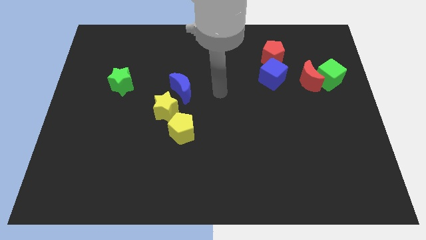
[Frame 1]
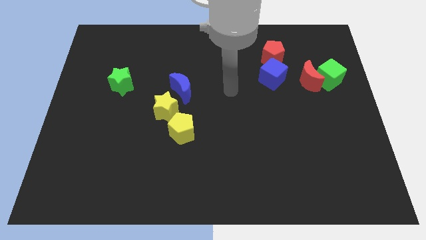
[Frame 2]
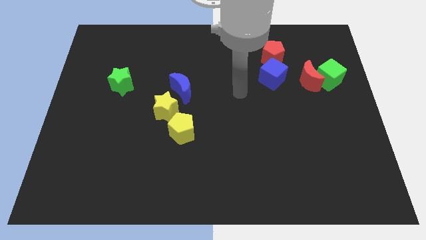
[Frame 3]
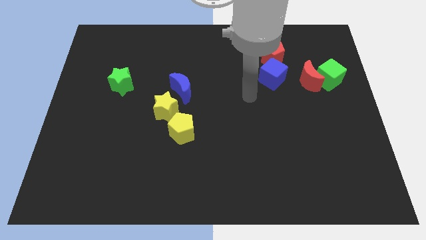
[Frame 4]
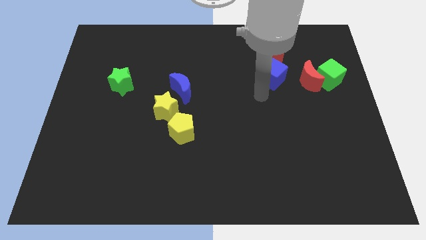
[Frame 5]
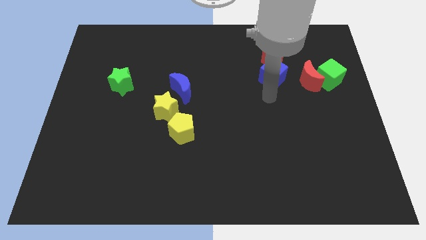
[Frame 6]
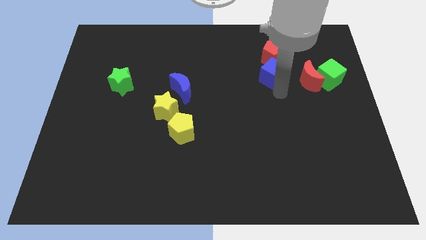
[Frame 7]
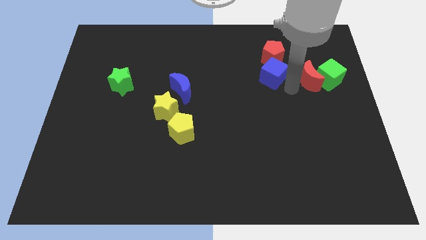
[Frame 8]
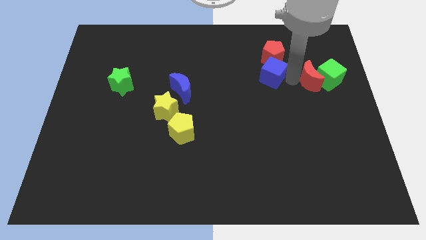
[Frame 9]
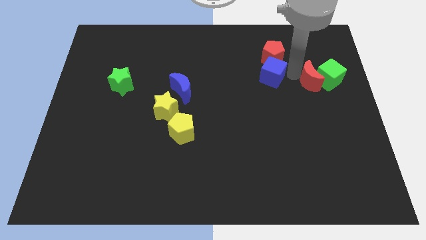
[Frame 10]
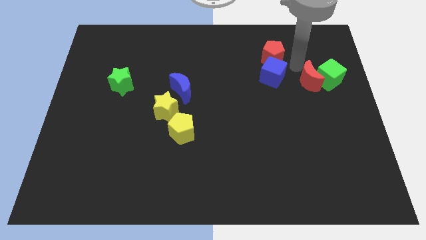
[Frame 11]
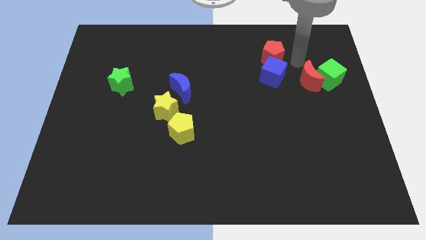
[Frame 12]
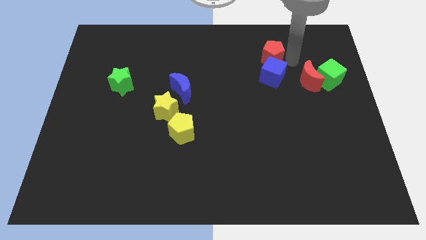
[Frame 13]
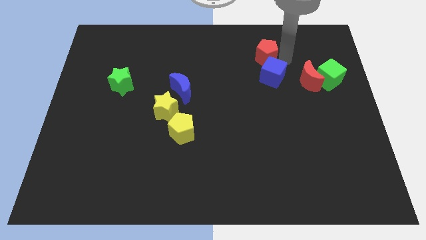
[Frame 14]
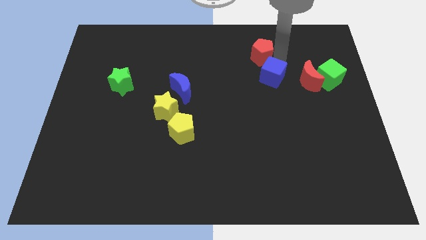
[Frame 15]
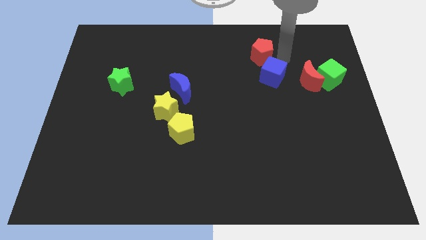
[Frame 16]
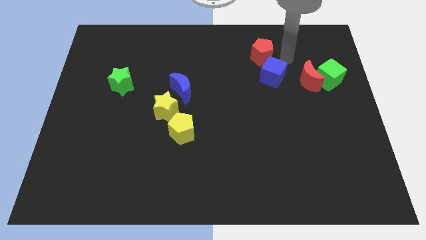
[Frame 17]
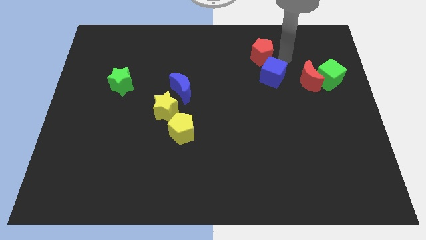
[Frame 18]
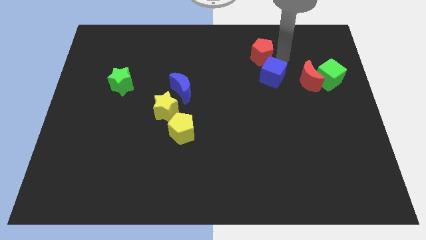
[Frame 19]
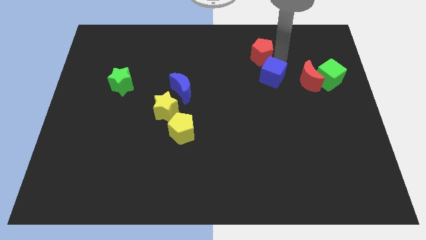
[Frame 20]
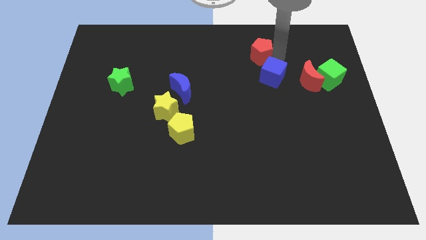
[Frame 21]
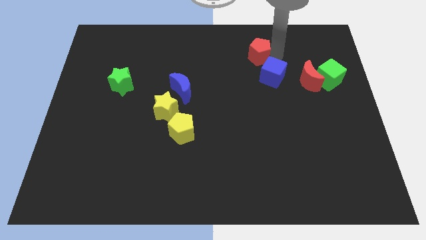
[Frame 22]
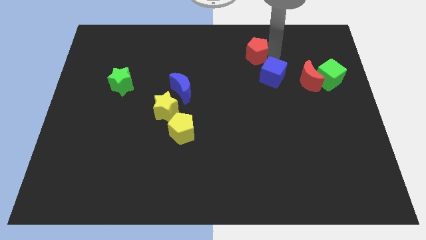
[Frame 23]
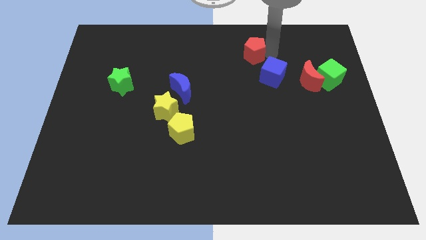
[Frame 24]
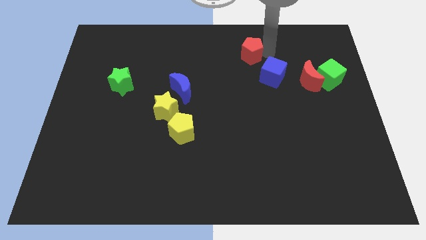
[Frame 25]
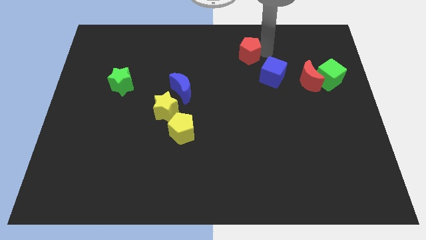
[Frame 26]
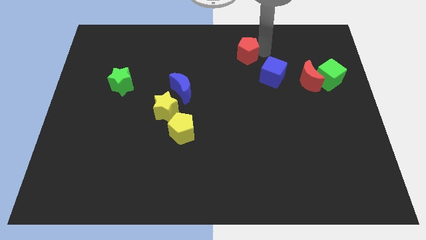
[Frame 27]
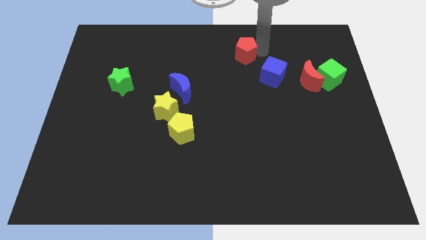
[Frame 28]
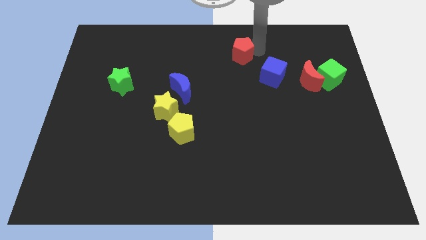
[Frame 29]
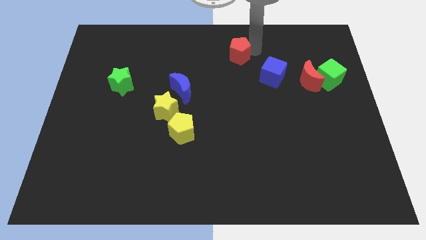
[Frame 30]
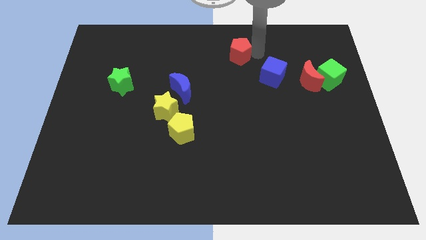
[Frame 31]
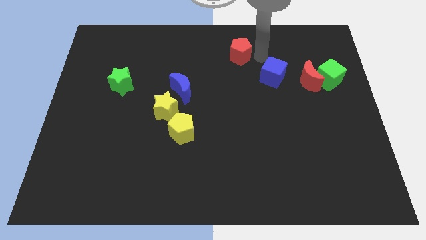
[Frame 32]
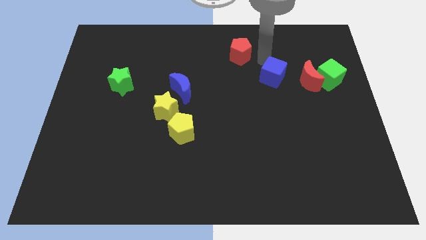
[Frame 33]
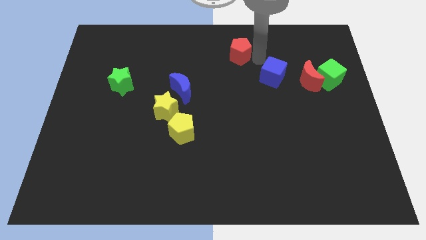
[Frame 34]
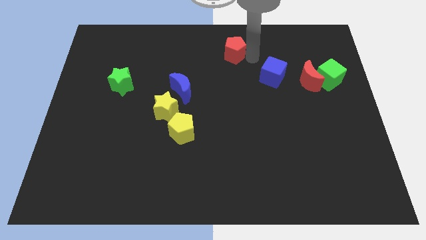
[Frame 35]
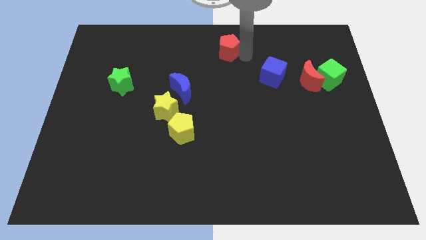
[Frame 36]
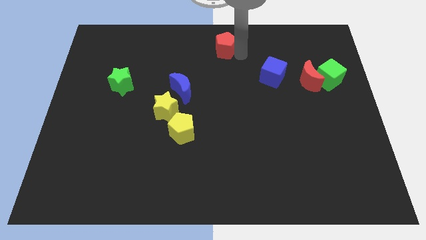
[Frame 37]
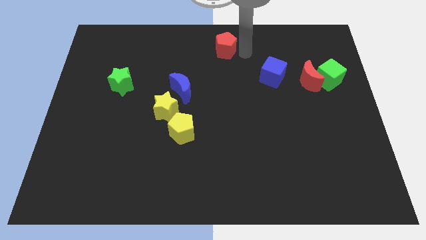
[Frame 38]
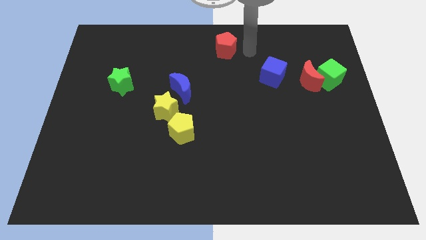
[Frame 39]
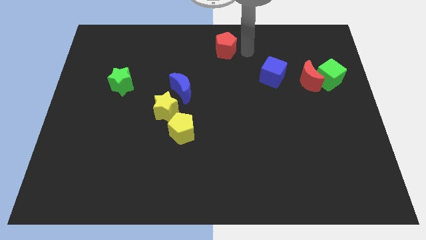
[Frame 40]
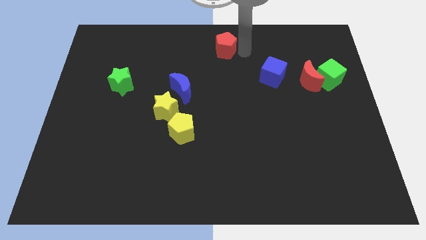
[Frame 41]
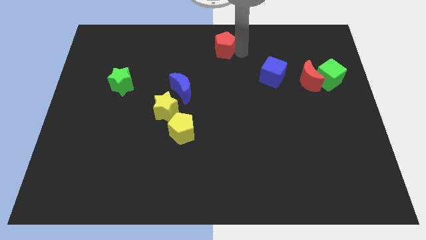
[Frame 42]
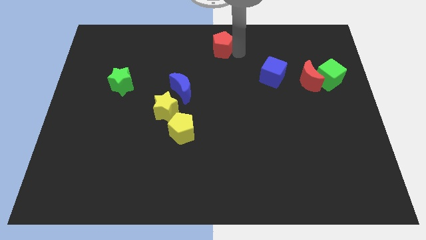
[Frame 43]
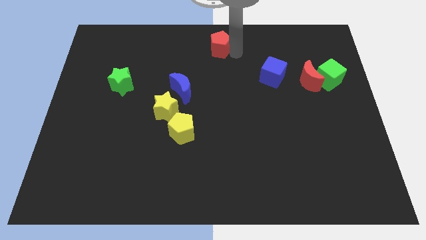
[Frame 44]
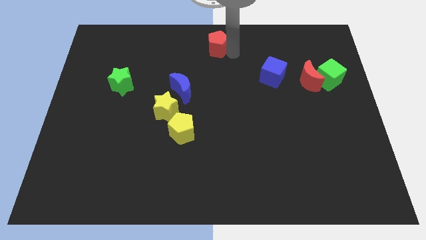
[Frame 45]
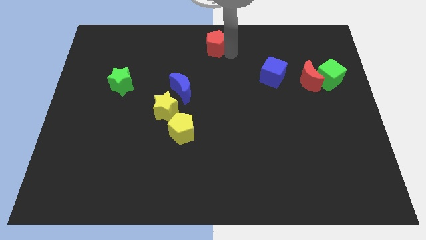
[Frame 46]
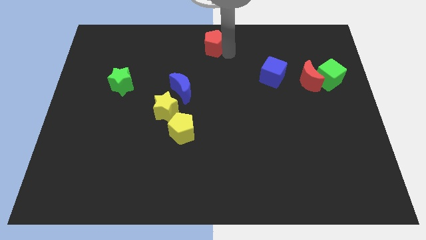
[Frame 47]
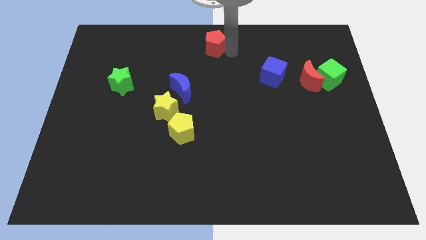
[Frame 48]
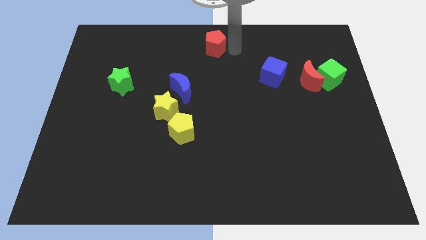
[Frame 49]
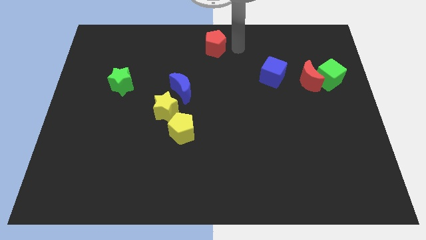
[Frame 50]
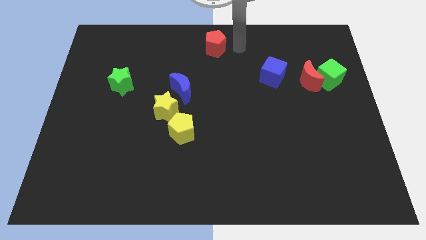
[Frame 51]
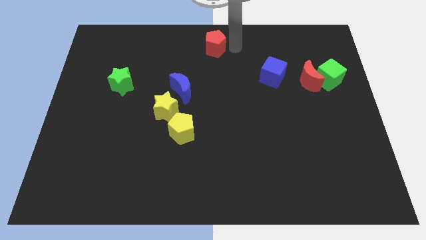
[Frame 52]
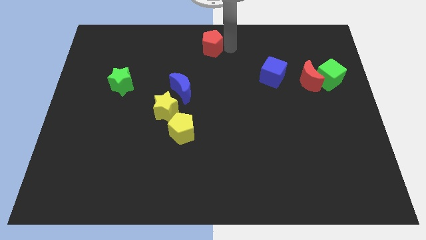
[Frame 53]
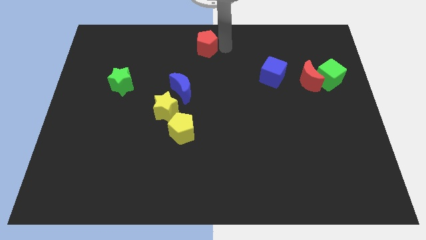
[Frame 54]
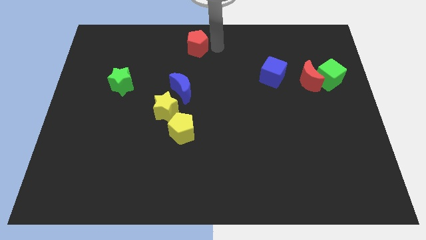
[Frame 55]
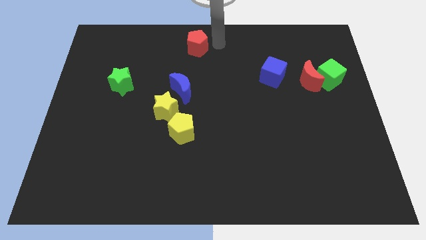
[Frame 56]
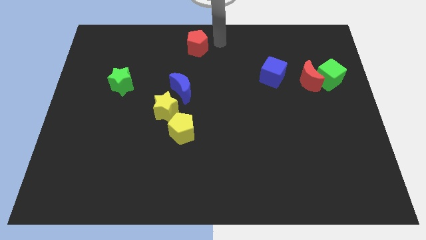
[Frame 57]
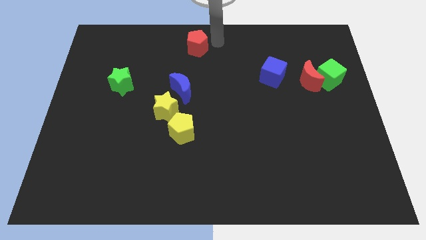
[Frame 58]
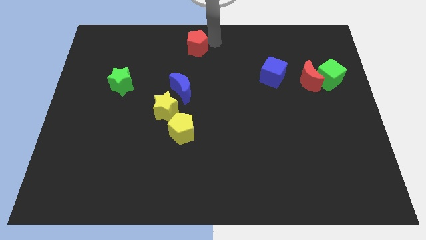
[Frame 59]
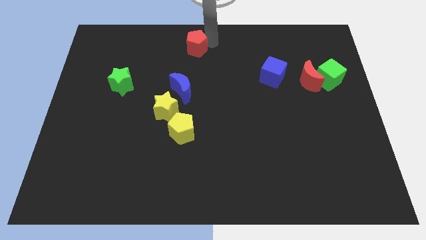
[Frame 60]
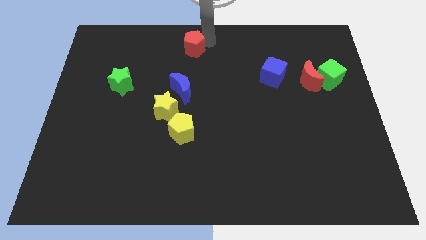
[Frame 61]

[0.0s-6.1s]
move the red pentagon to the left

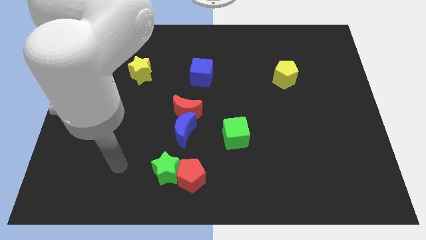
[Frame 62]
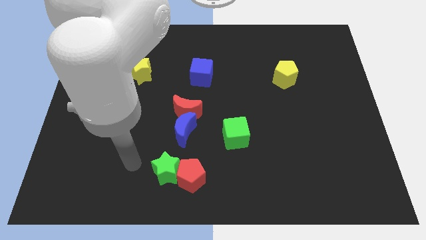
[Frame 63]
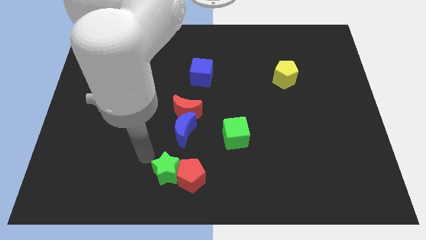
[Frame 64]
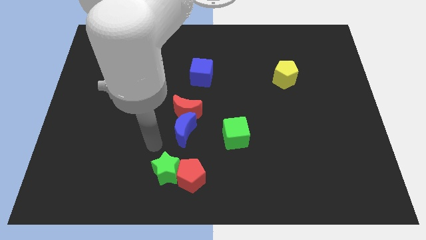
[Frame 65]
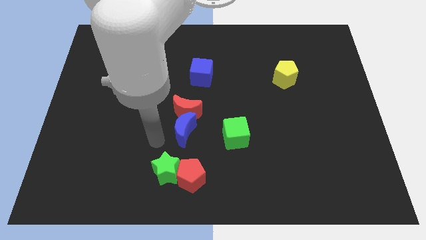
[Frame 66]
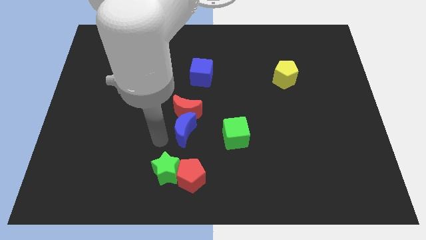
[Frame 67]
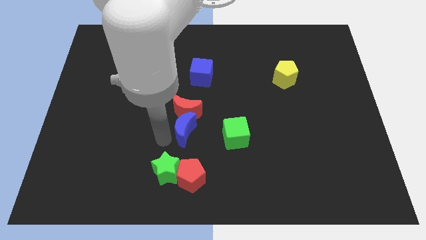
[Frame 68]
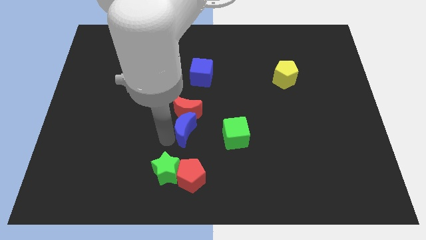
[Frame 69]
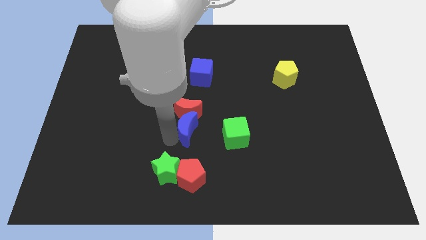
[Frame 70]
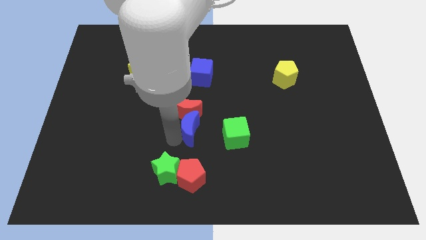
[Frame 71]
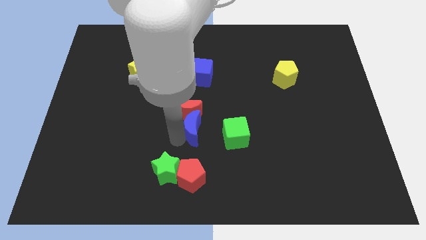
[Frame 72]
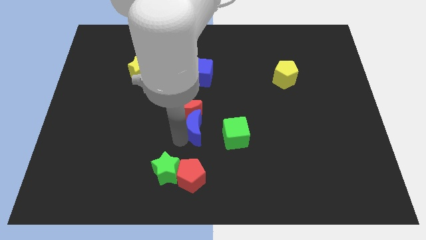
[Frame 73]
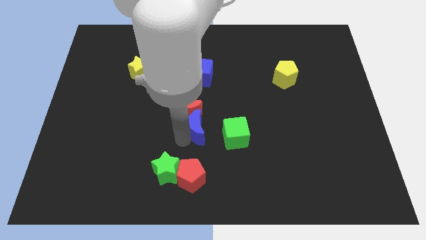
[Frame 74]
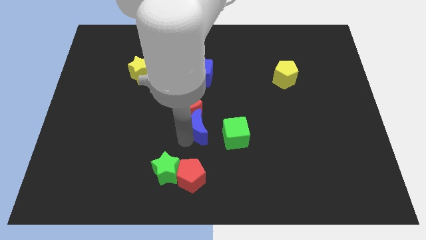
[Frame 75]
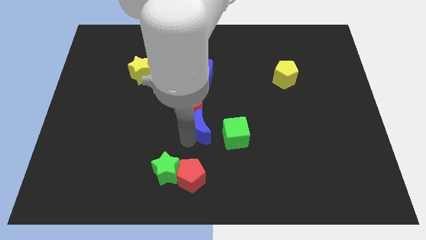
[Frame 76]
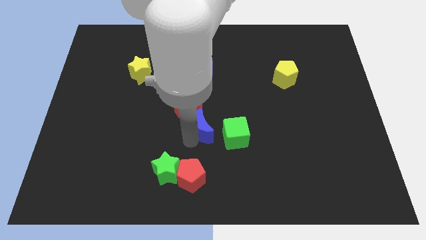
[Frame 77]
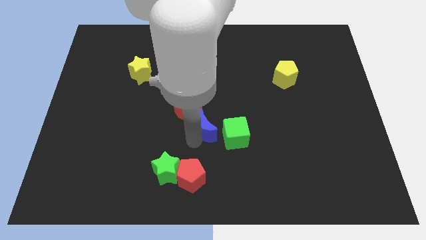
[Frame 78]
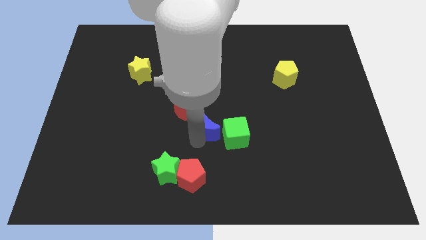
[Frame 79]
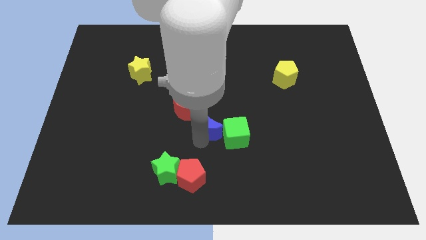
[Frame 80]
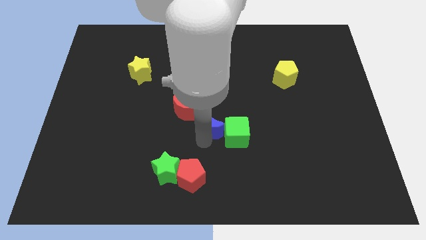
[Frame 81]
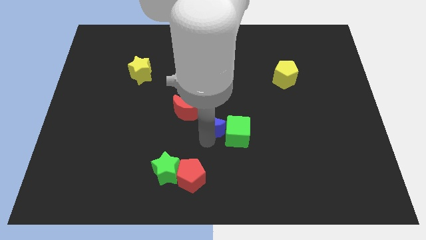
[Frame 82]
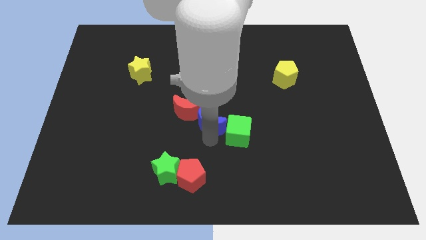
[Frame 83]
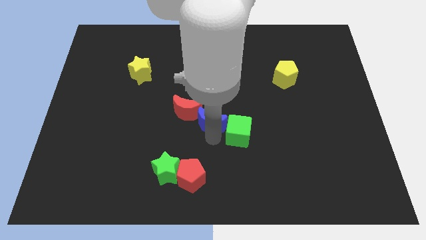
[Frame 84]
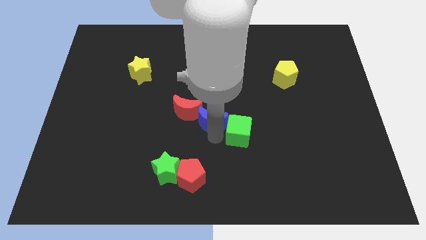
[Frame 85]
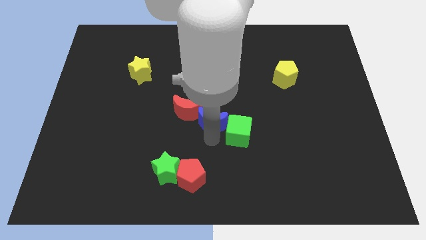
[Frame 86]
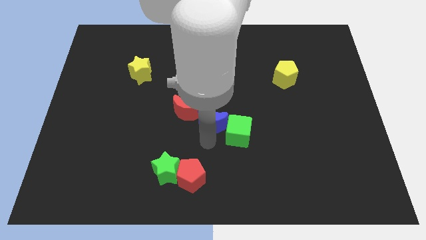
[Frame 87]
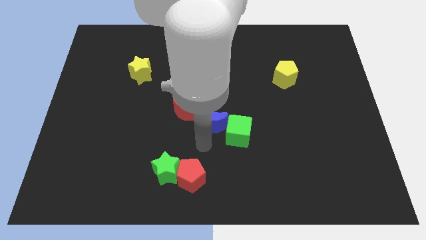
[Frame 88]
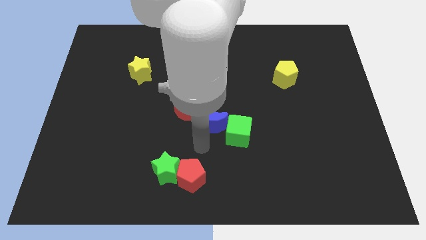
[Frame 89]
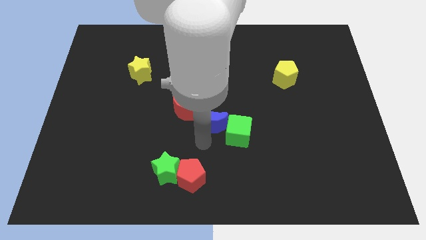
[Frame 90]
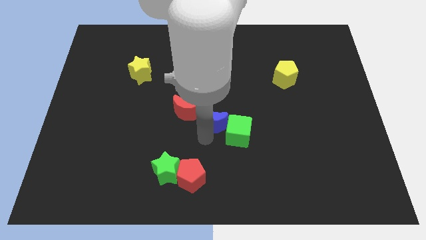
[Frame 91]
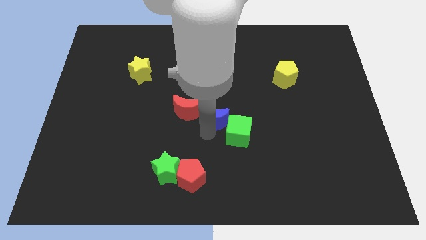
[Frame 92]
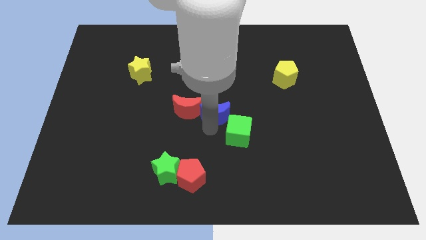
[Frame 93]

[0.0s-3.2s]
slide the blue moon upwards and right diagonally a little
